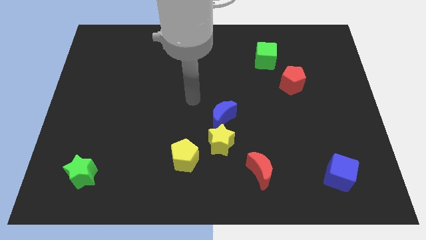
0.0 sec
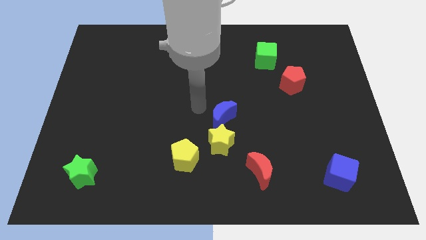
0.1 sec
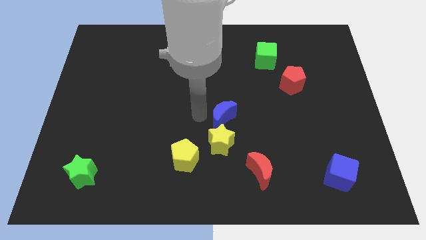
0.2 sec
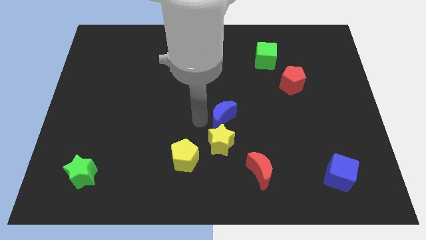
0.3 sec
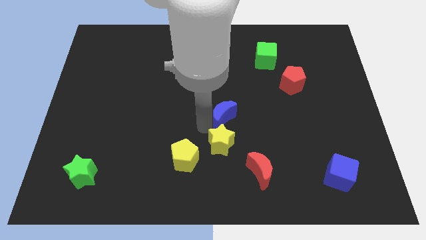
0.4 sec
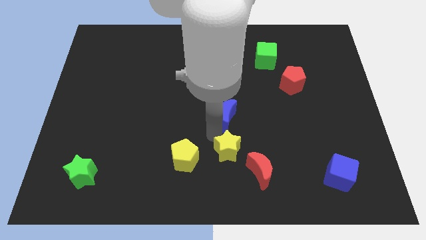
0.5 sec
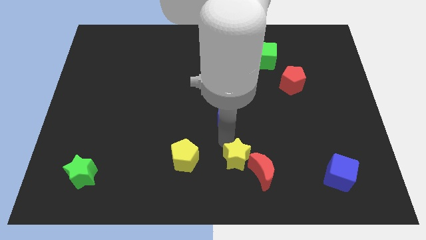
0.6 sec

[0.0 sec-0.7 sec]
separate the blue moon from the yellow star

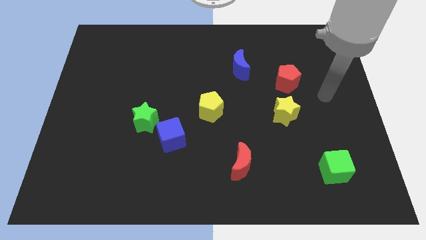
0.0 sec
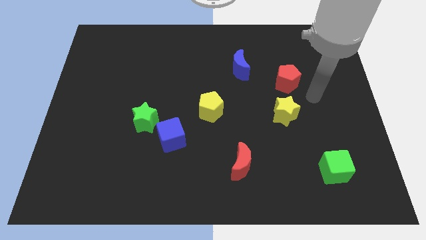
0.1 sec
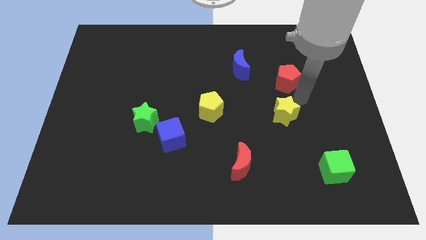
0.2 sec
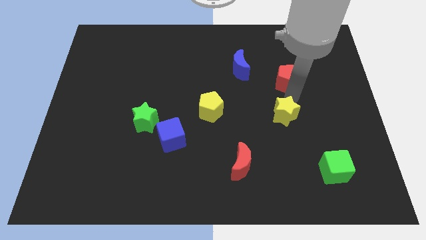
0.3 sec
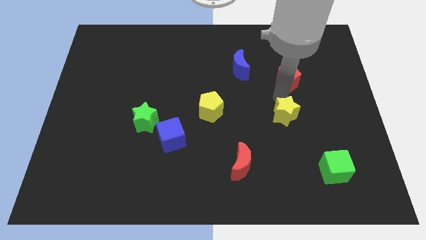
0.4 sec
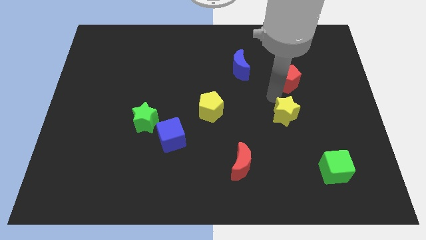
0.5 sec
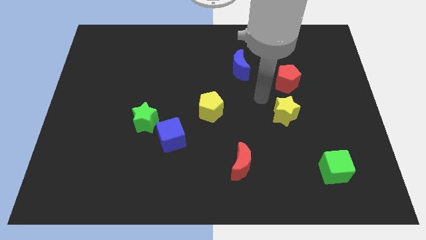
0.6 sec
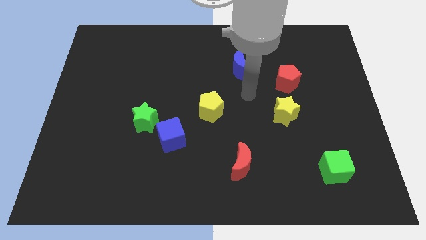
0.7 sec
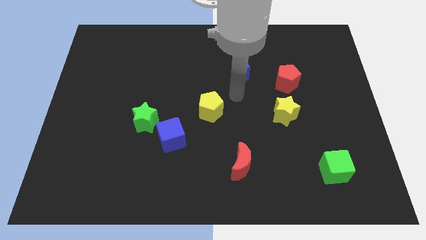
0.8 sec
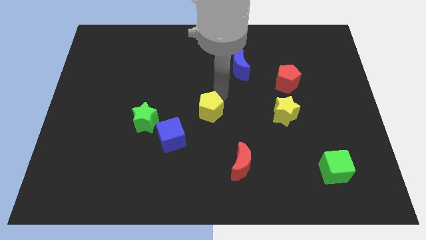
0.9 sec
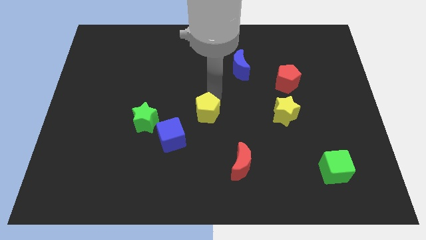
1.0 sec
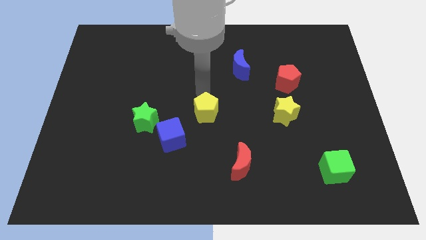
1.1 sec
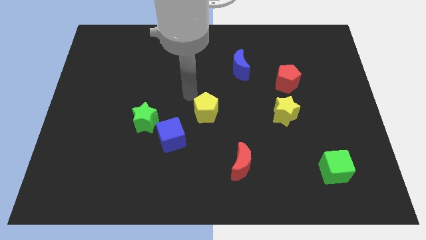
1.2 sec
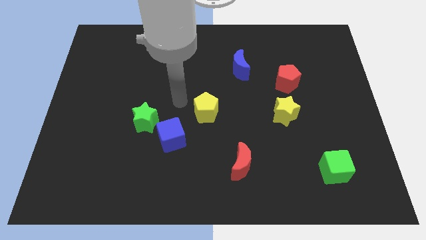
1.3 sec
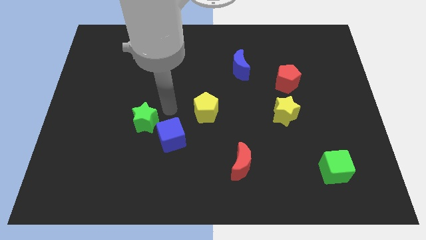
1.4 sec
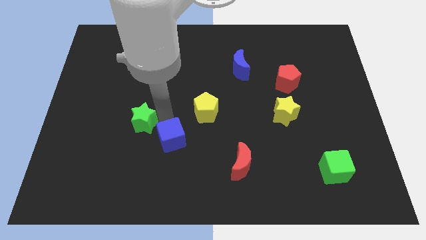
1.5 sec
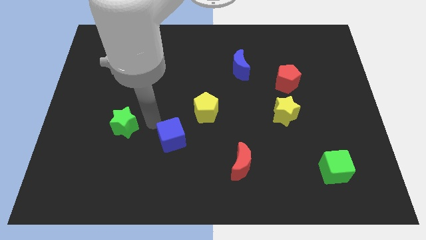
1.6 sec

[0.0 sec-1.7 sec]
pull the blue cube apart from the green star

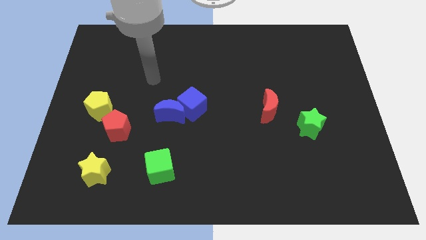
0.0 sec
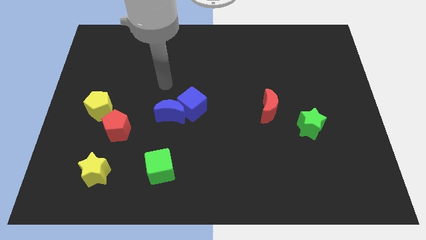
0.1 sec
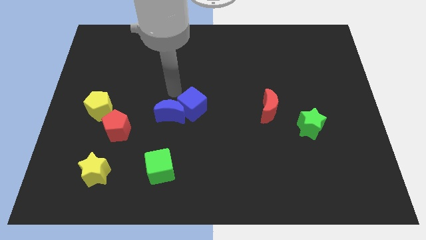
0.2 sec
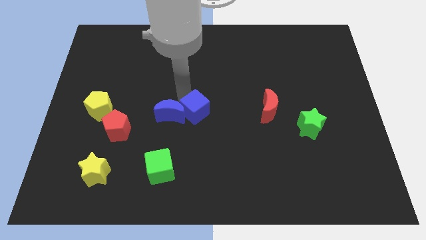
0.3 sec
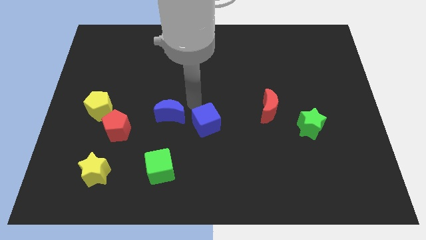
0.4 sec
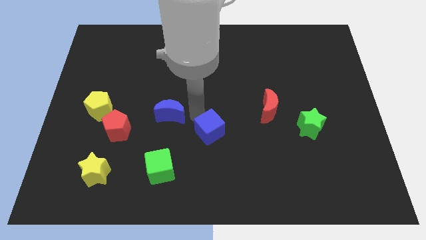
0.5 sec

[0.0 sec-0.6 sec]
pull the blue moon apart from the blue cube

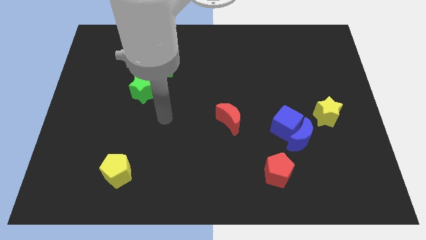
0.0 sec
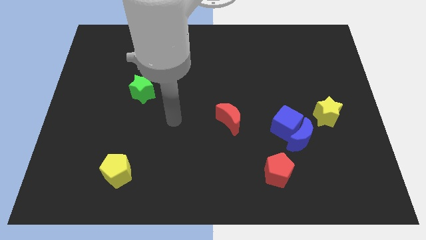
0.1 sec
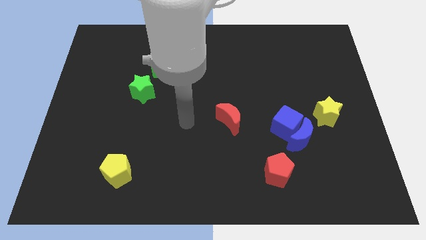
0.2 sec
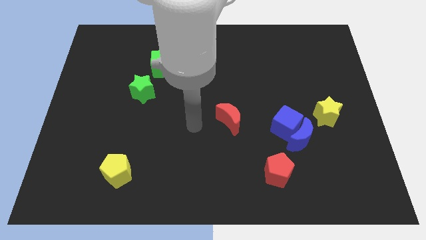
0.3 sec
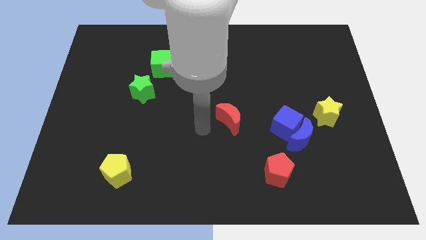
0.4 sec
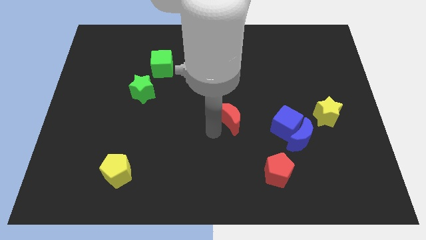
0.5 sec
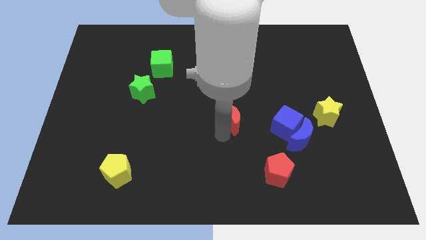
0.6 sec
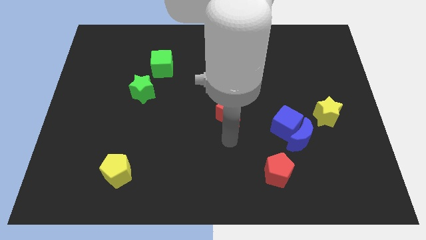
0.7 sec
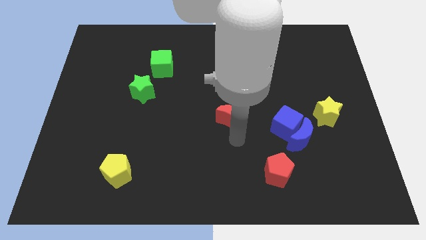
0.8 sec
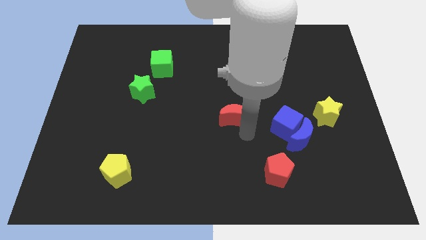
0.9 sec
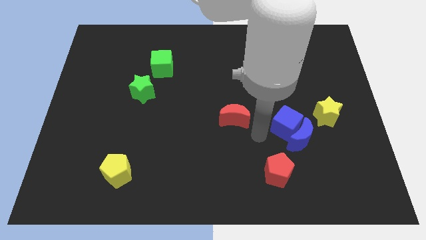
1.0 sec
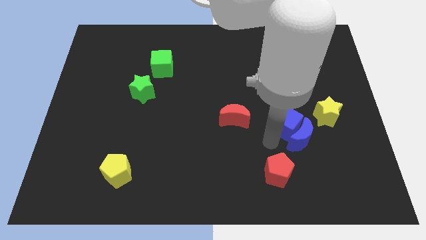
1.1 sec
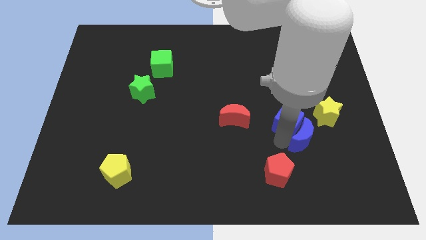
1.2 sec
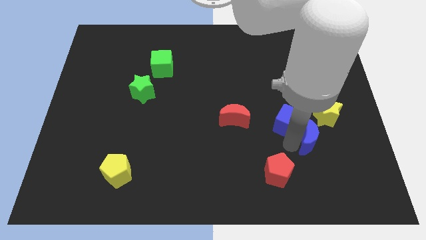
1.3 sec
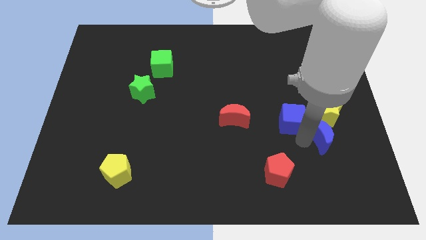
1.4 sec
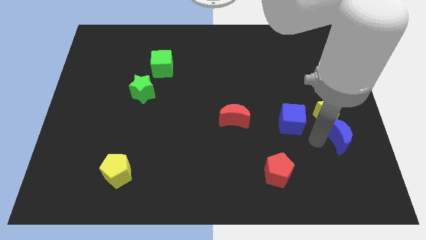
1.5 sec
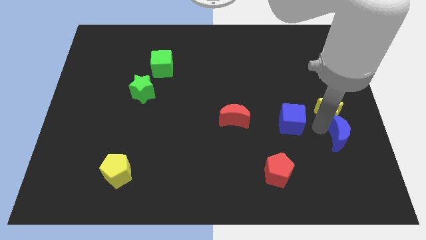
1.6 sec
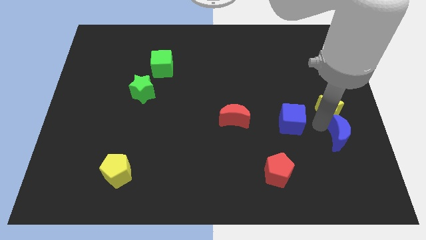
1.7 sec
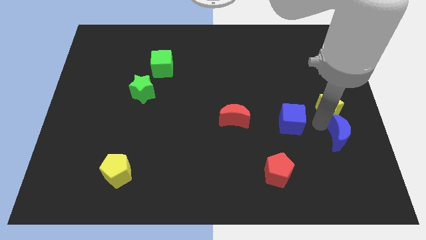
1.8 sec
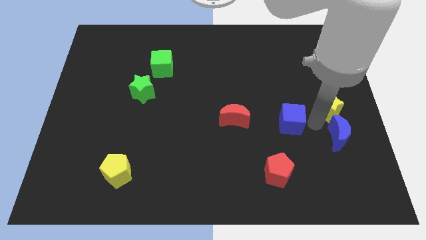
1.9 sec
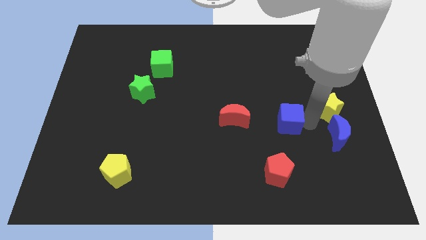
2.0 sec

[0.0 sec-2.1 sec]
move the blue cube away from the blue moon and yellow star

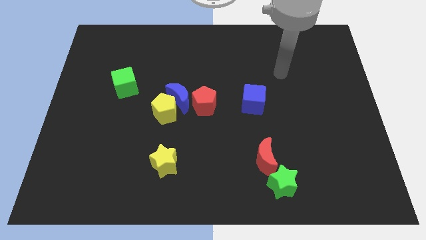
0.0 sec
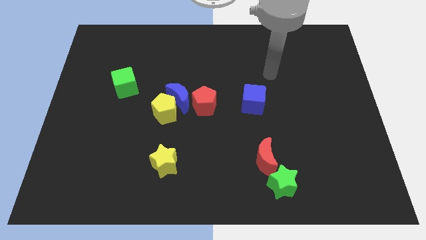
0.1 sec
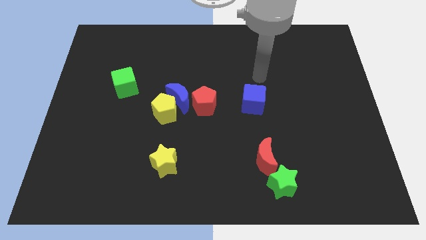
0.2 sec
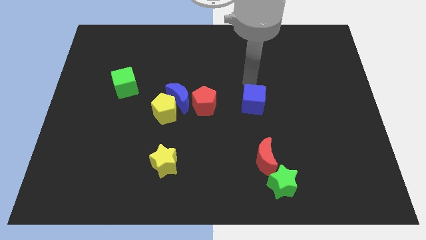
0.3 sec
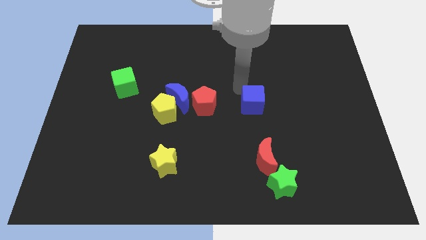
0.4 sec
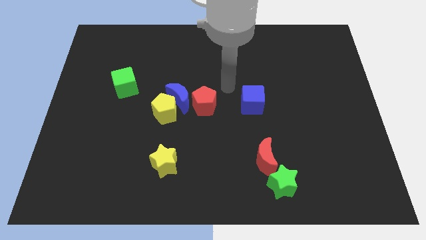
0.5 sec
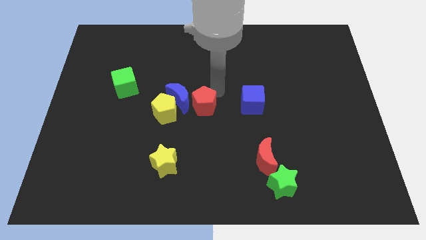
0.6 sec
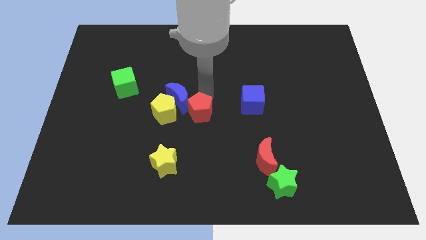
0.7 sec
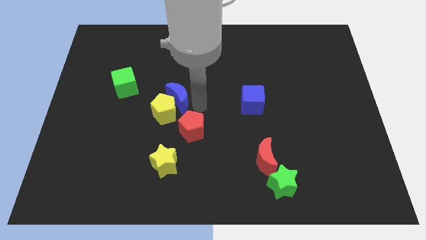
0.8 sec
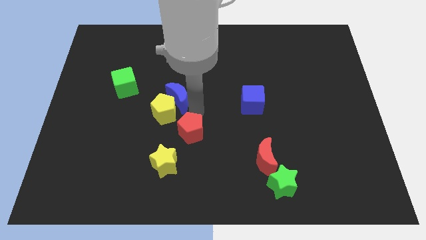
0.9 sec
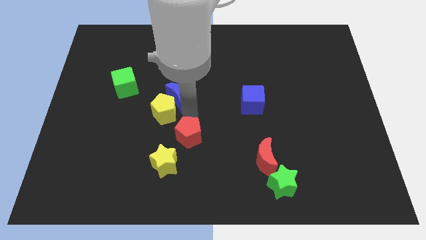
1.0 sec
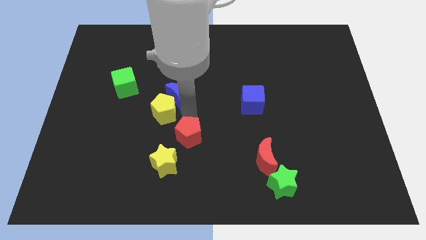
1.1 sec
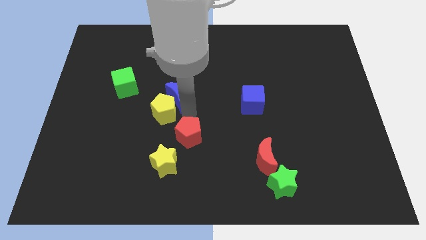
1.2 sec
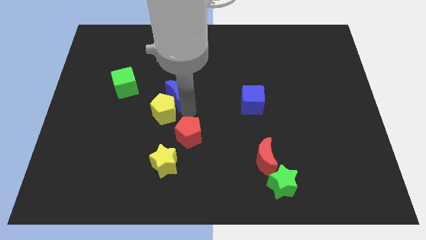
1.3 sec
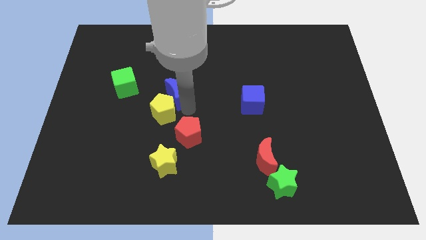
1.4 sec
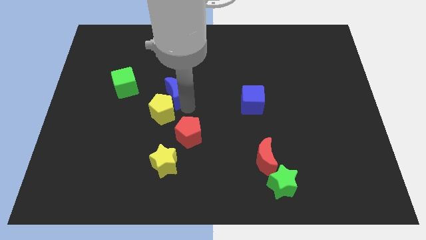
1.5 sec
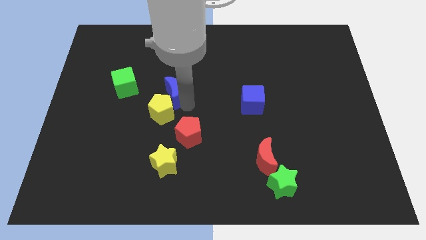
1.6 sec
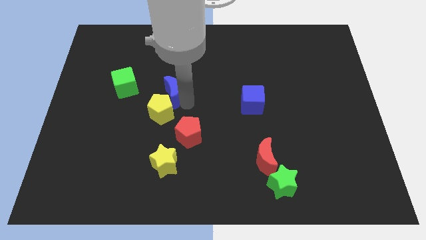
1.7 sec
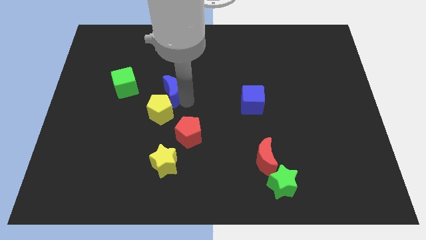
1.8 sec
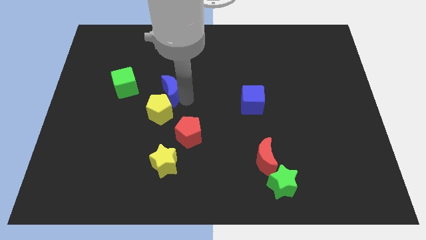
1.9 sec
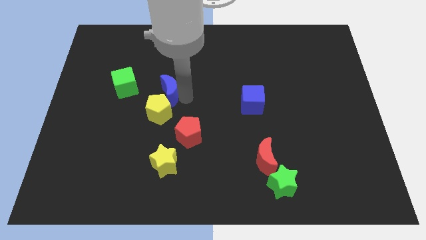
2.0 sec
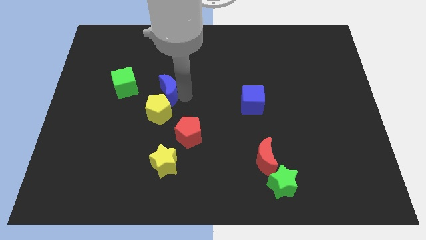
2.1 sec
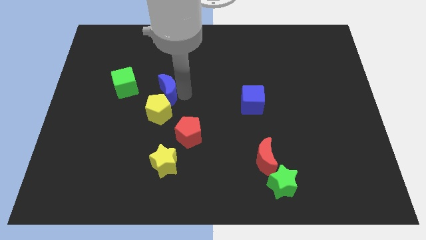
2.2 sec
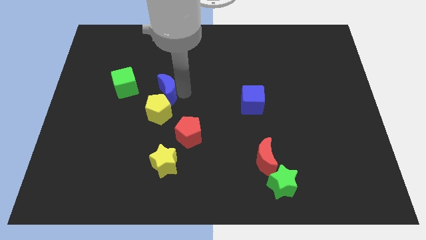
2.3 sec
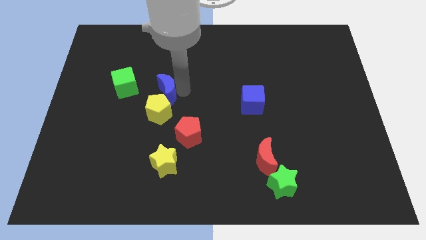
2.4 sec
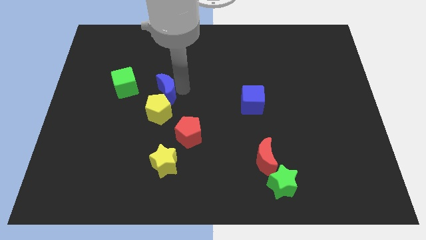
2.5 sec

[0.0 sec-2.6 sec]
move the blue moon away from the yellow pentagon and red pentagon

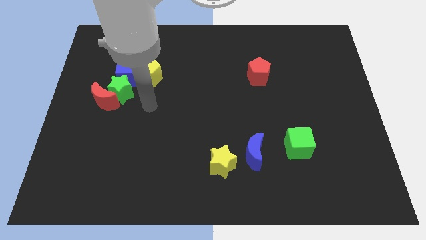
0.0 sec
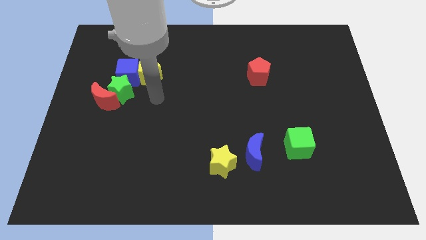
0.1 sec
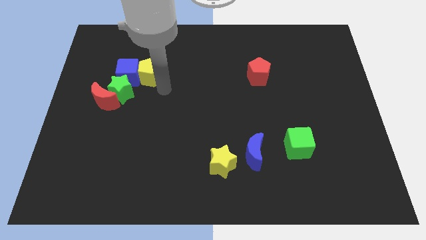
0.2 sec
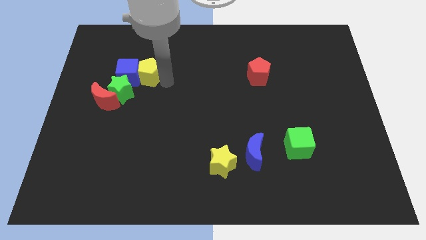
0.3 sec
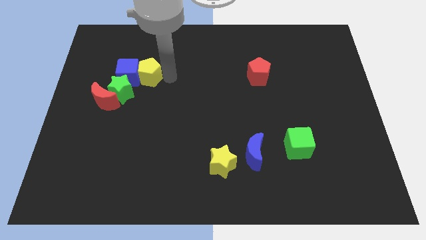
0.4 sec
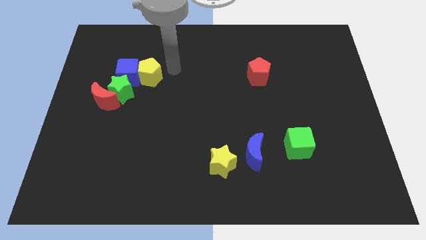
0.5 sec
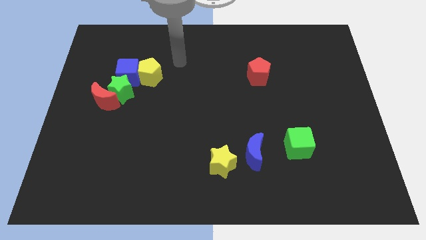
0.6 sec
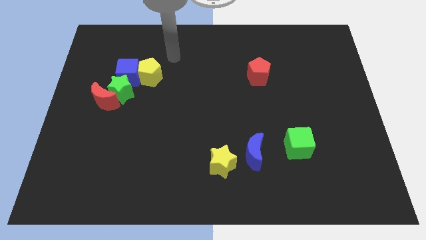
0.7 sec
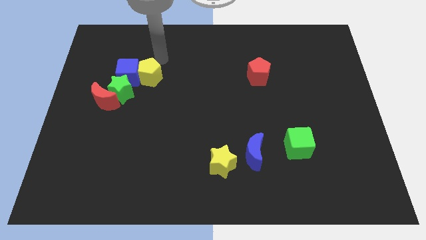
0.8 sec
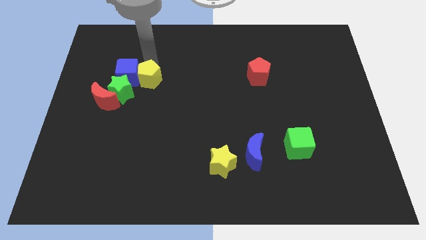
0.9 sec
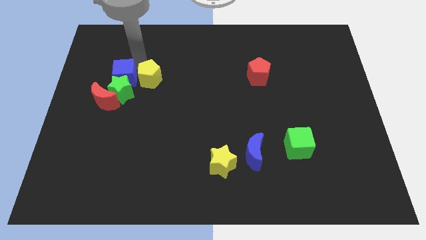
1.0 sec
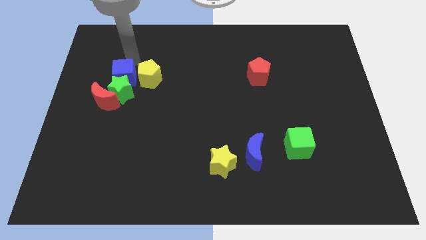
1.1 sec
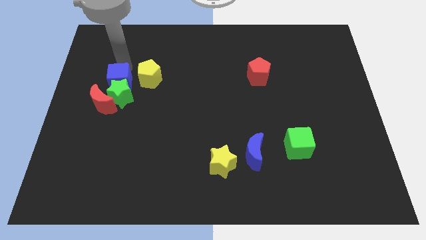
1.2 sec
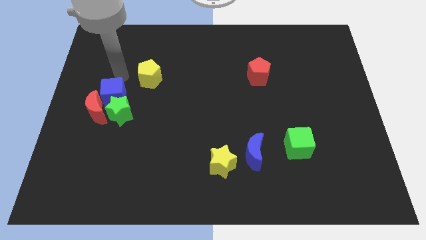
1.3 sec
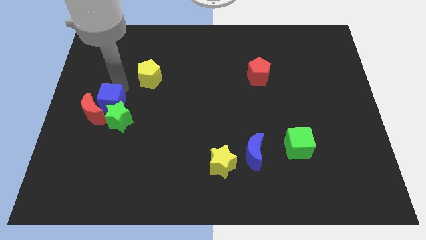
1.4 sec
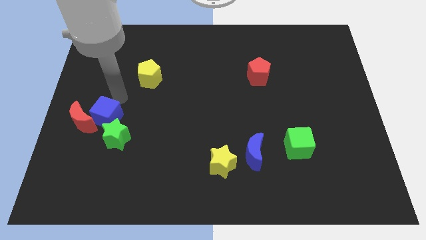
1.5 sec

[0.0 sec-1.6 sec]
move the green star away from the group

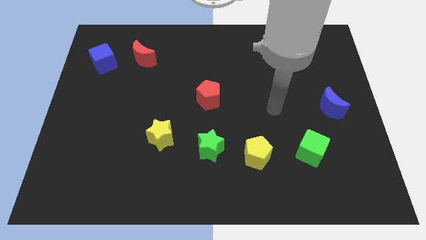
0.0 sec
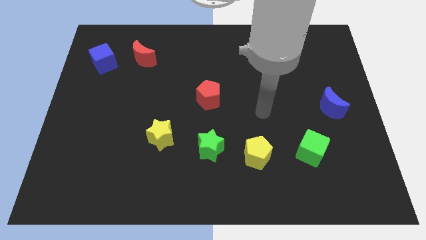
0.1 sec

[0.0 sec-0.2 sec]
separate the red moon from the blue cube
